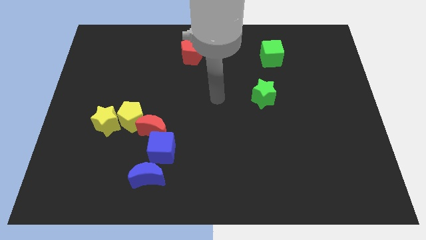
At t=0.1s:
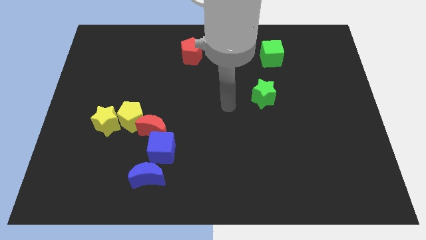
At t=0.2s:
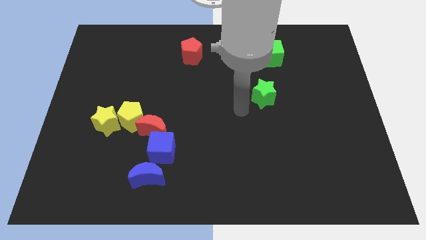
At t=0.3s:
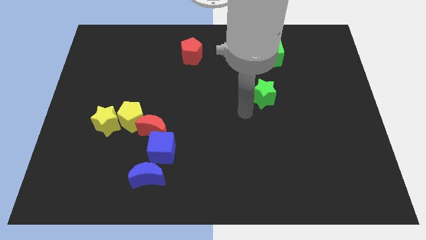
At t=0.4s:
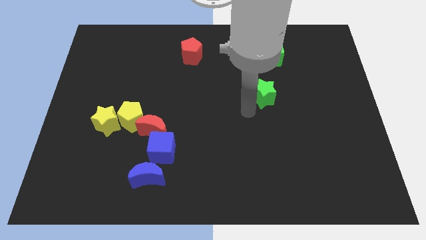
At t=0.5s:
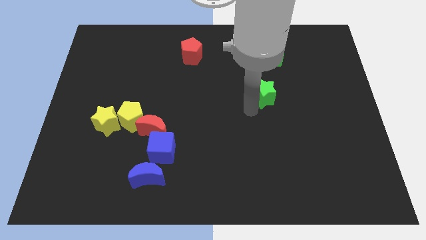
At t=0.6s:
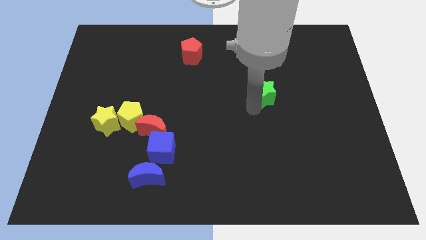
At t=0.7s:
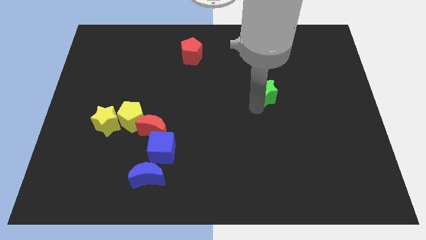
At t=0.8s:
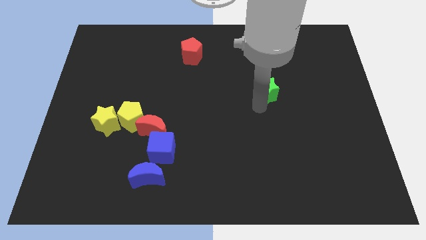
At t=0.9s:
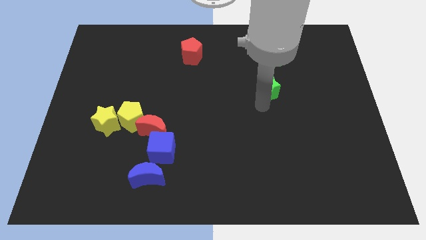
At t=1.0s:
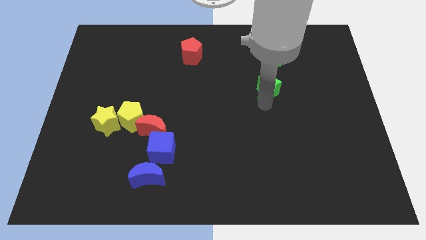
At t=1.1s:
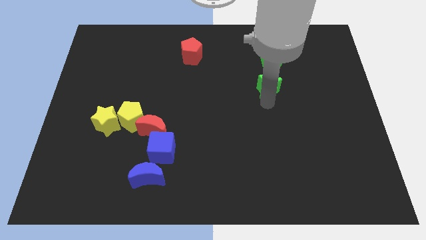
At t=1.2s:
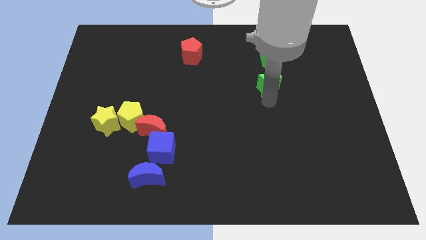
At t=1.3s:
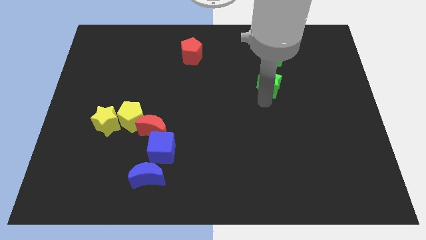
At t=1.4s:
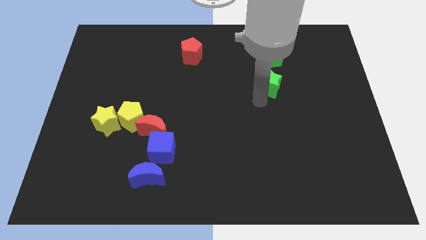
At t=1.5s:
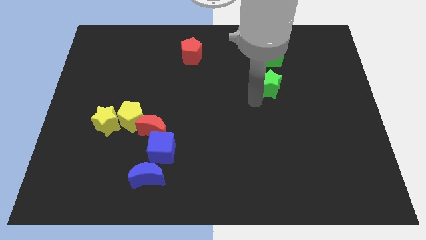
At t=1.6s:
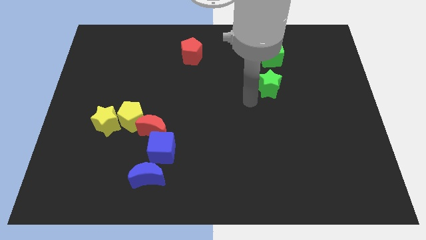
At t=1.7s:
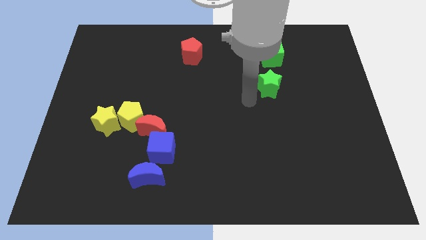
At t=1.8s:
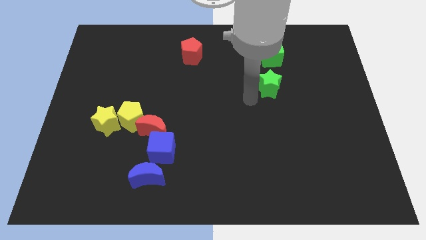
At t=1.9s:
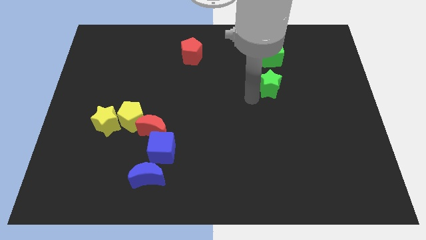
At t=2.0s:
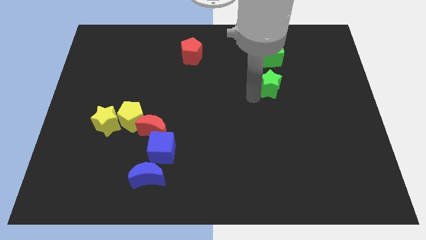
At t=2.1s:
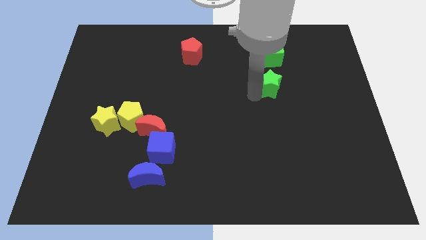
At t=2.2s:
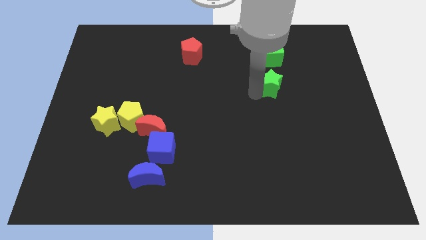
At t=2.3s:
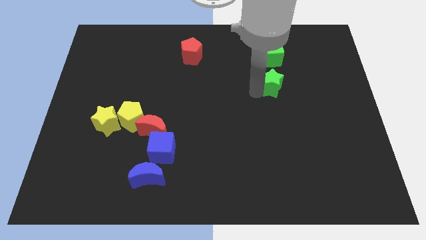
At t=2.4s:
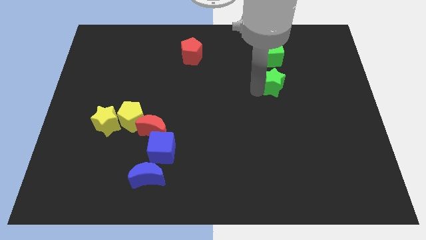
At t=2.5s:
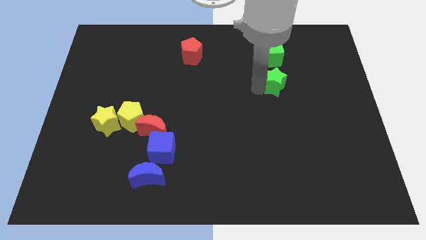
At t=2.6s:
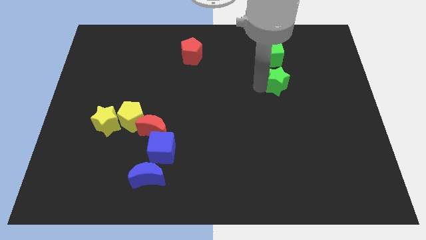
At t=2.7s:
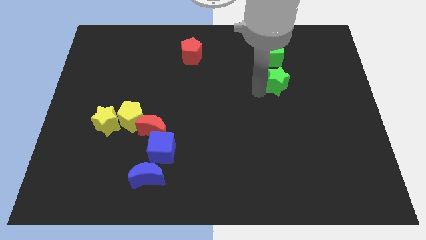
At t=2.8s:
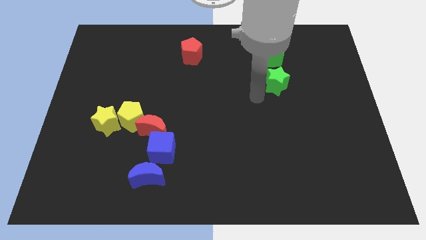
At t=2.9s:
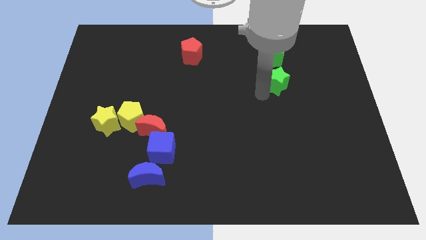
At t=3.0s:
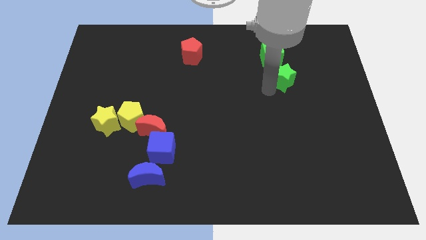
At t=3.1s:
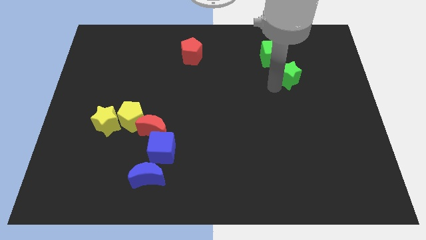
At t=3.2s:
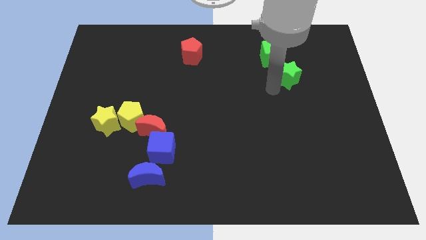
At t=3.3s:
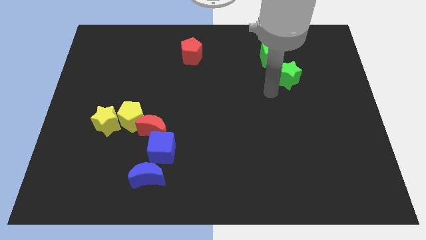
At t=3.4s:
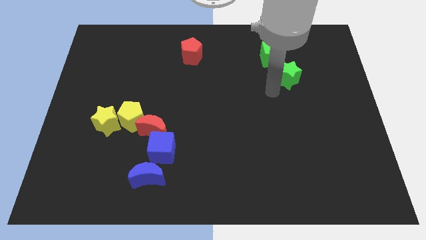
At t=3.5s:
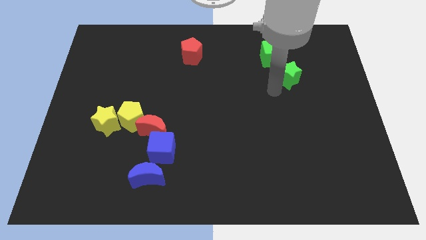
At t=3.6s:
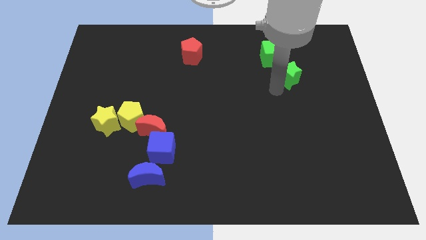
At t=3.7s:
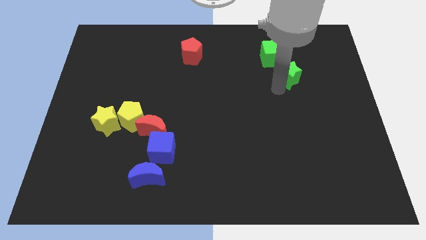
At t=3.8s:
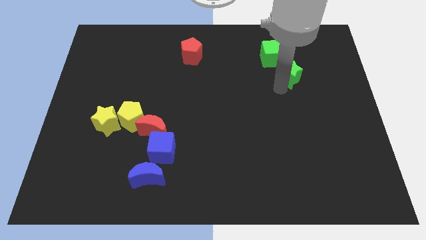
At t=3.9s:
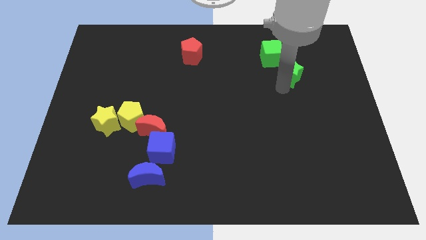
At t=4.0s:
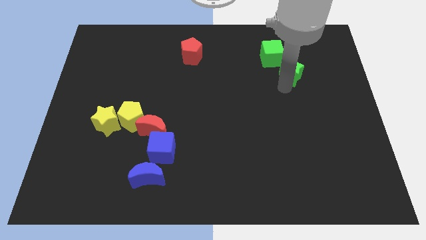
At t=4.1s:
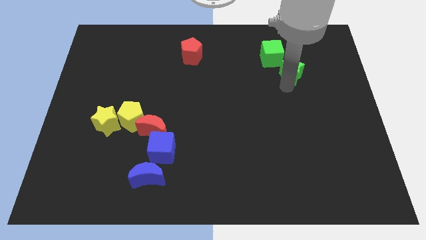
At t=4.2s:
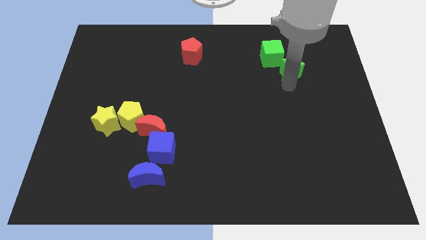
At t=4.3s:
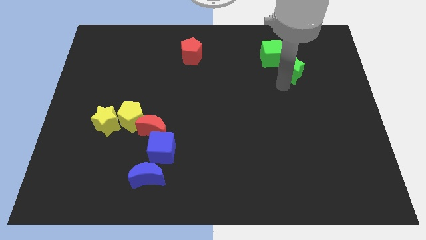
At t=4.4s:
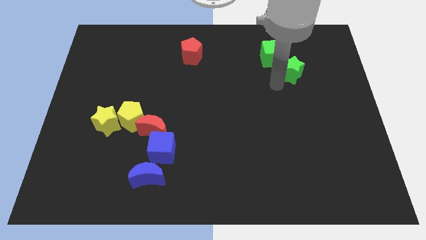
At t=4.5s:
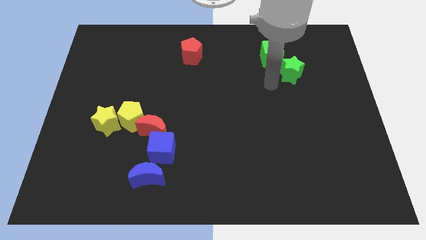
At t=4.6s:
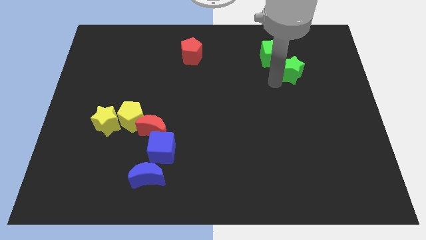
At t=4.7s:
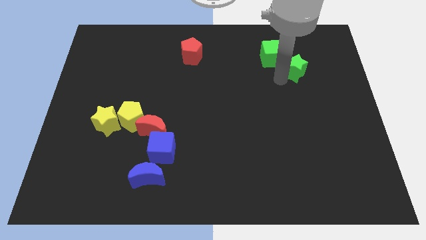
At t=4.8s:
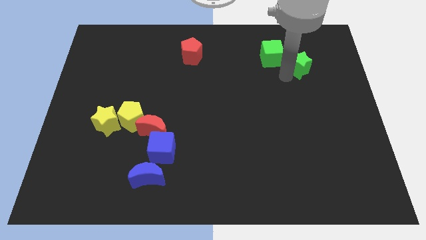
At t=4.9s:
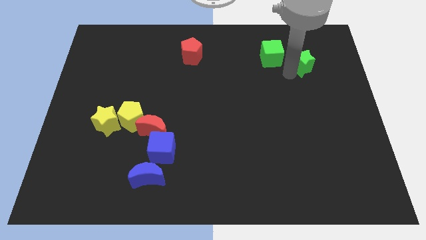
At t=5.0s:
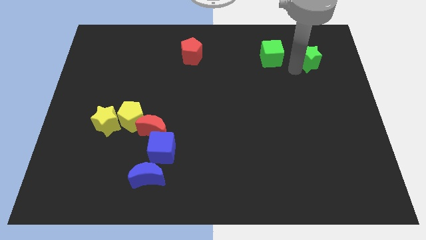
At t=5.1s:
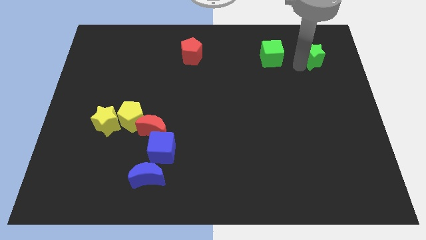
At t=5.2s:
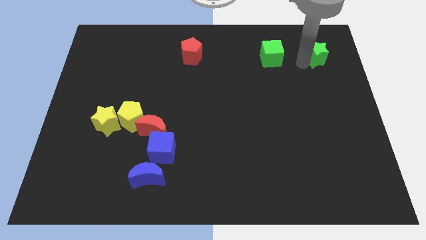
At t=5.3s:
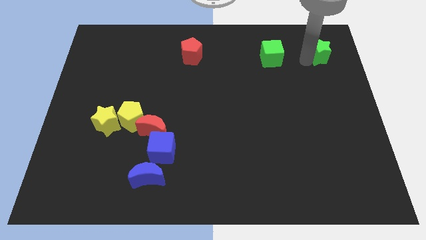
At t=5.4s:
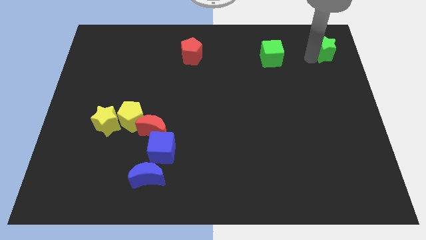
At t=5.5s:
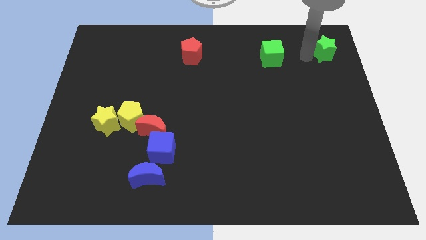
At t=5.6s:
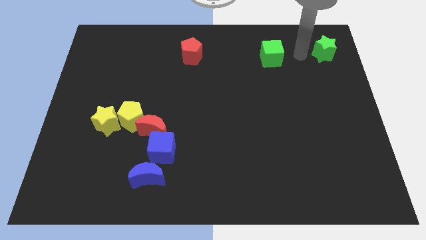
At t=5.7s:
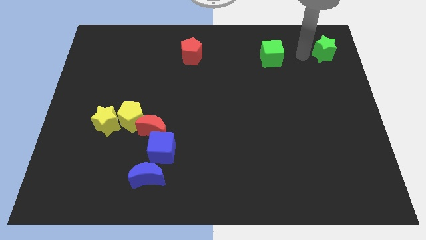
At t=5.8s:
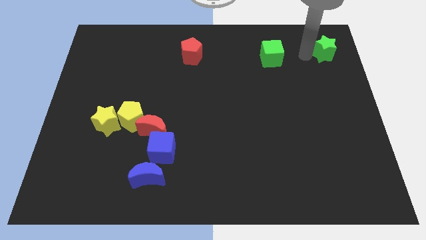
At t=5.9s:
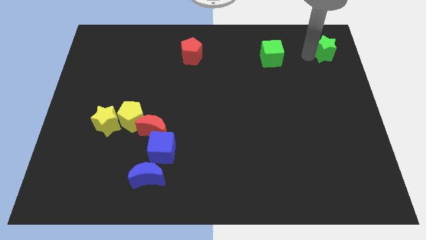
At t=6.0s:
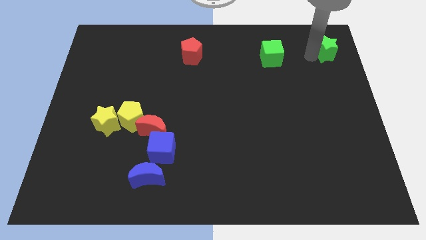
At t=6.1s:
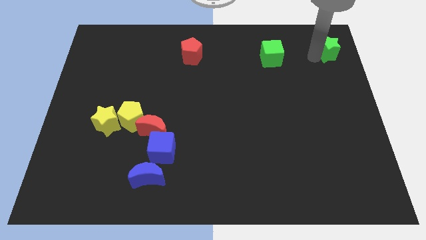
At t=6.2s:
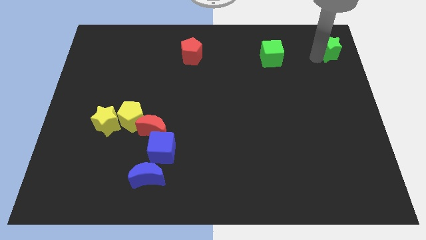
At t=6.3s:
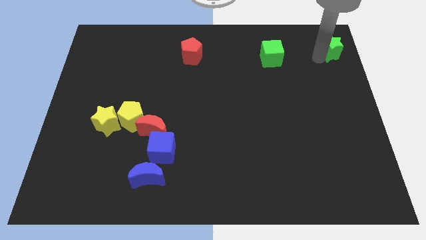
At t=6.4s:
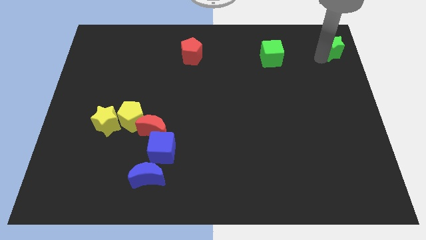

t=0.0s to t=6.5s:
move the green star to the upper right corner

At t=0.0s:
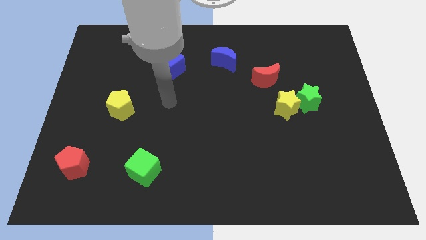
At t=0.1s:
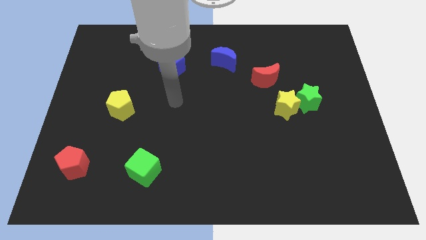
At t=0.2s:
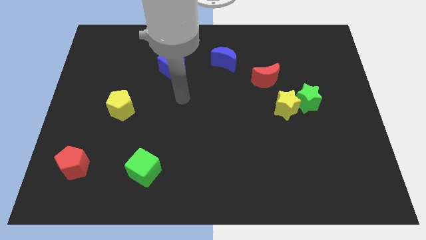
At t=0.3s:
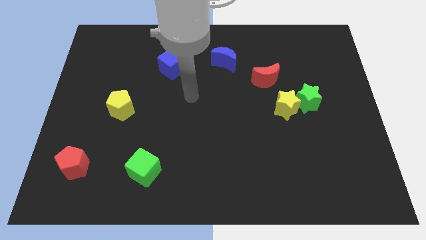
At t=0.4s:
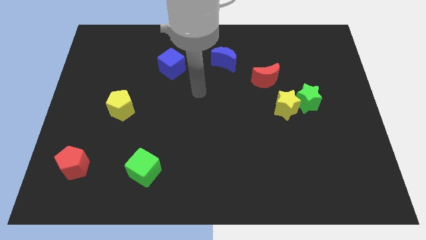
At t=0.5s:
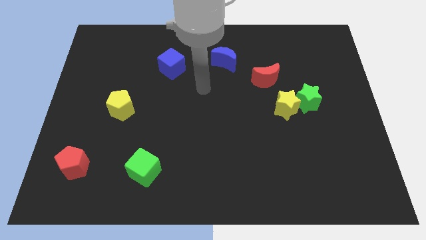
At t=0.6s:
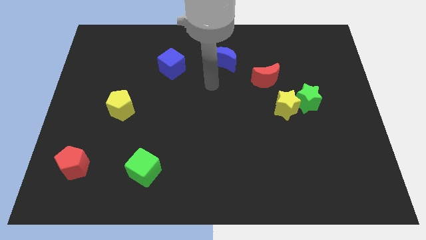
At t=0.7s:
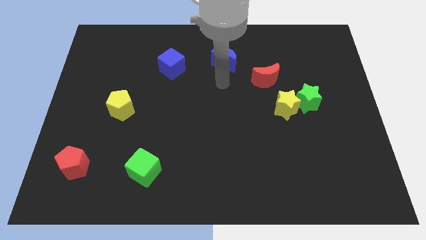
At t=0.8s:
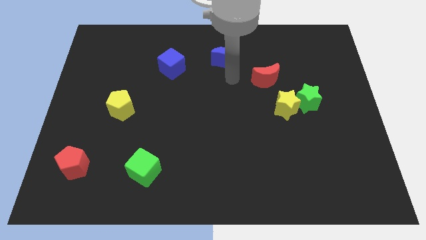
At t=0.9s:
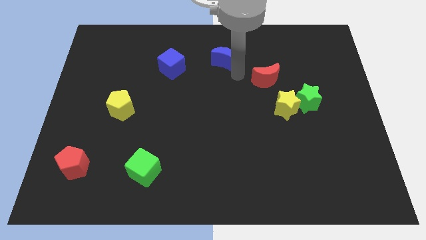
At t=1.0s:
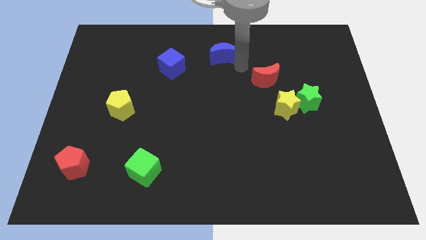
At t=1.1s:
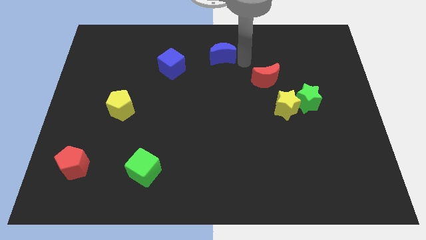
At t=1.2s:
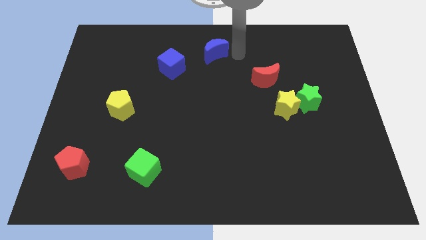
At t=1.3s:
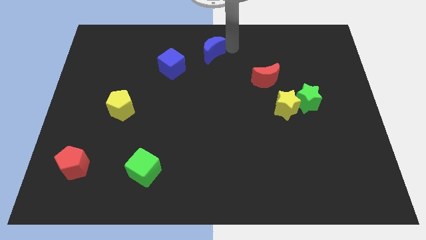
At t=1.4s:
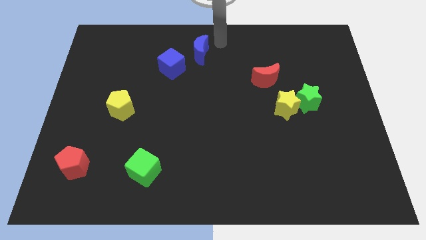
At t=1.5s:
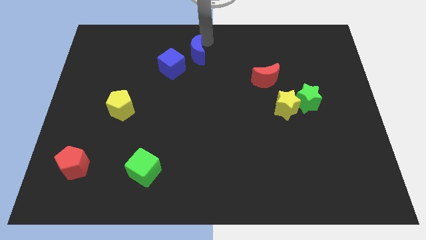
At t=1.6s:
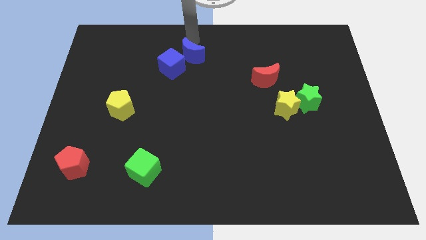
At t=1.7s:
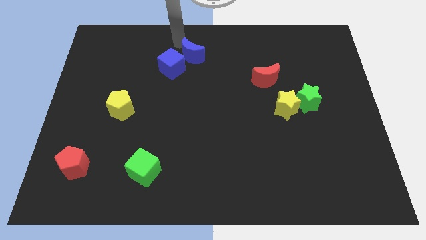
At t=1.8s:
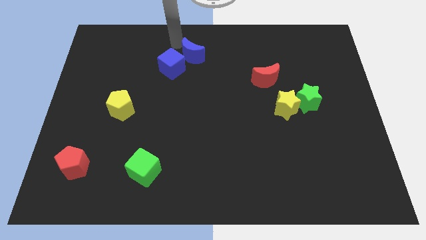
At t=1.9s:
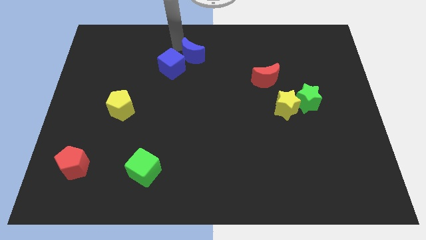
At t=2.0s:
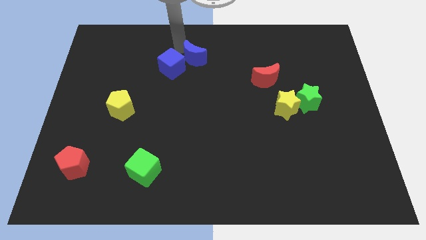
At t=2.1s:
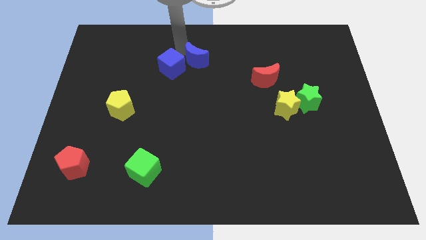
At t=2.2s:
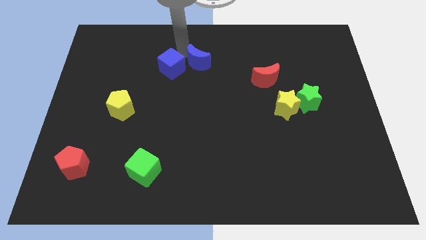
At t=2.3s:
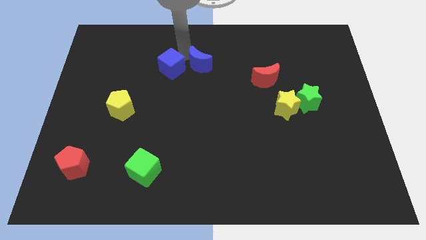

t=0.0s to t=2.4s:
slide the blue moon to the middle
